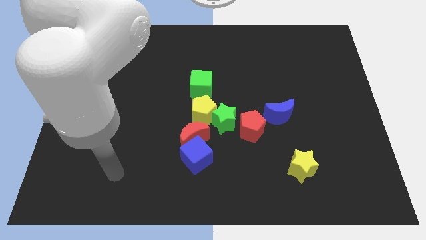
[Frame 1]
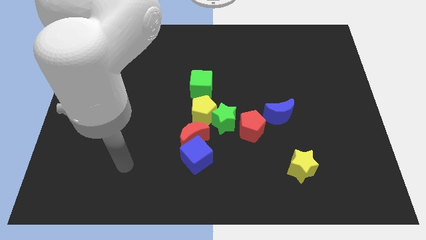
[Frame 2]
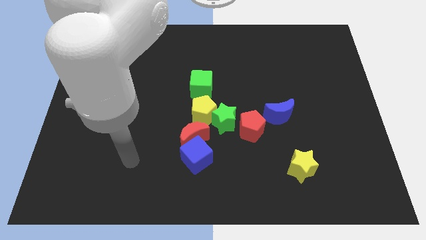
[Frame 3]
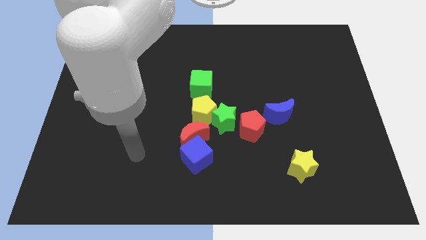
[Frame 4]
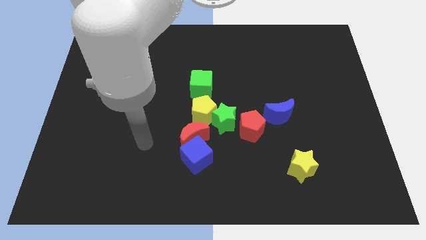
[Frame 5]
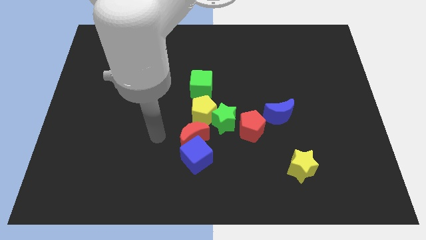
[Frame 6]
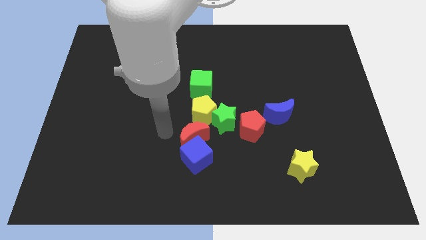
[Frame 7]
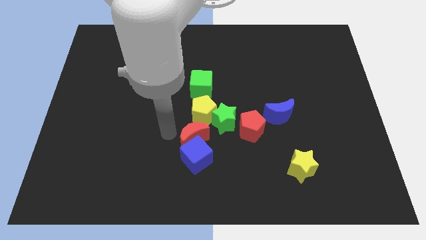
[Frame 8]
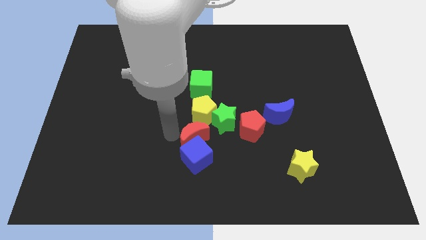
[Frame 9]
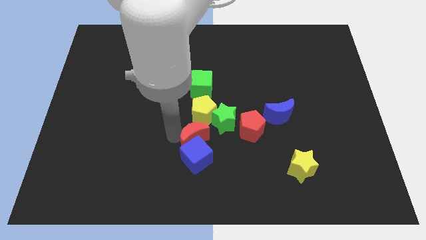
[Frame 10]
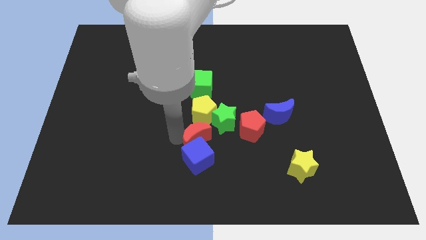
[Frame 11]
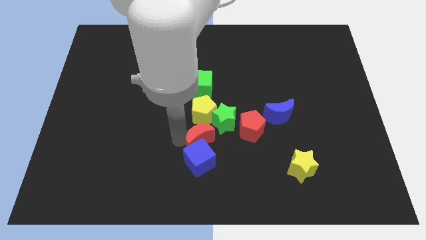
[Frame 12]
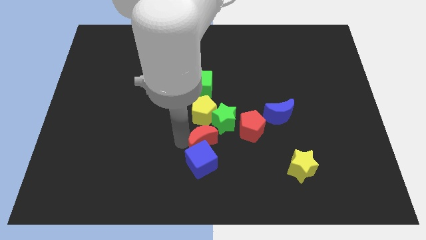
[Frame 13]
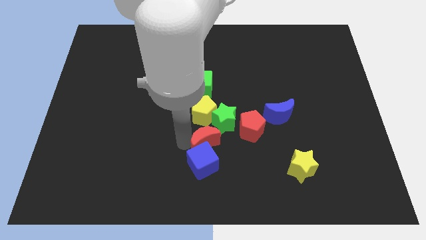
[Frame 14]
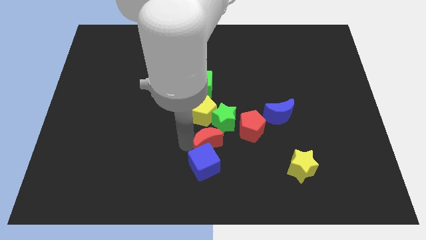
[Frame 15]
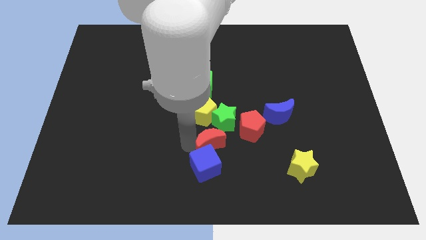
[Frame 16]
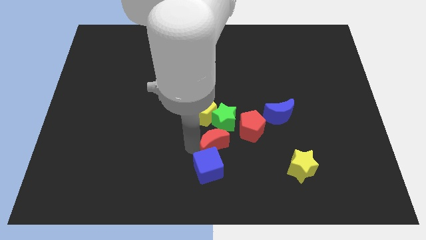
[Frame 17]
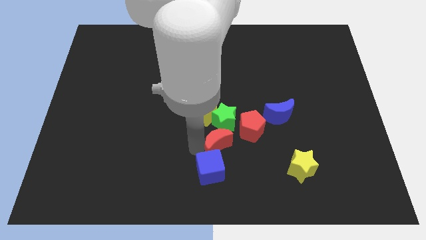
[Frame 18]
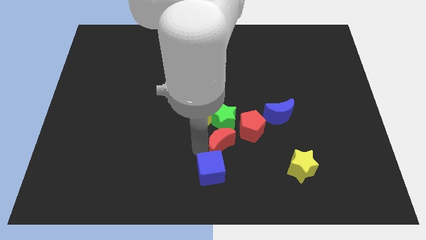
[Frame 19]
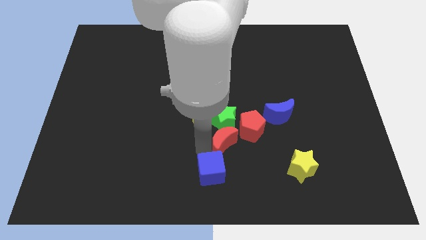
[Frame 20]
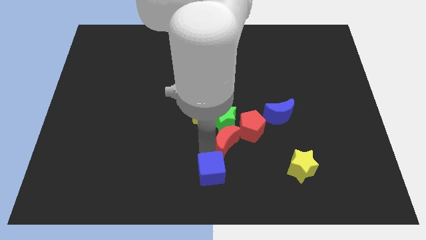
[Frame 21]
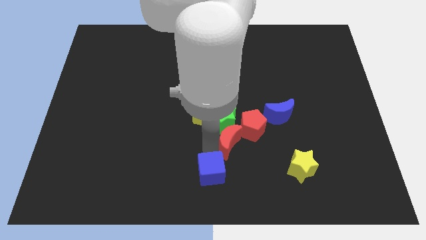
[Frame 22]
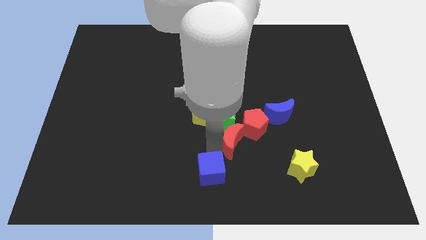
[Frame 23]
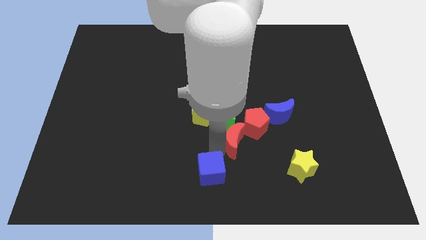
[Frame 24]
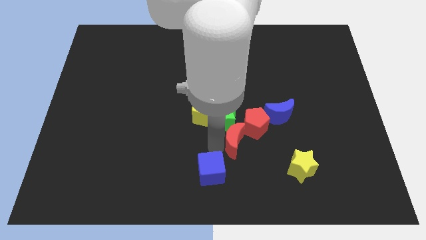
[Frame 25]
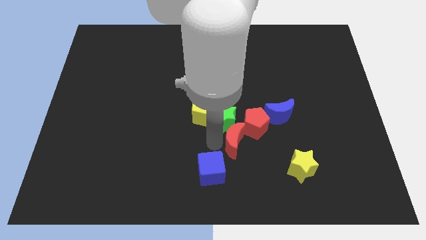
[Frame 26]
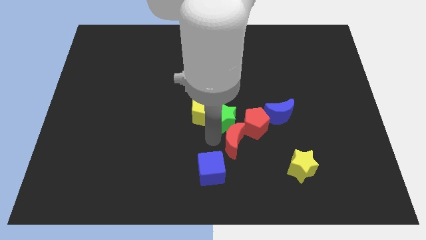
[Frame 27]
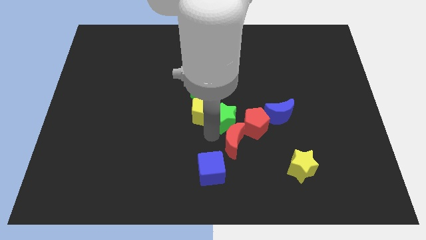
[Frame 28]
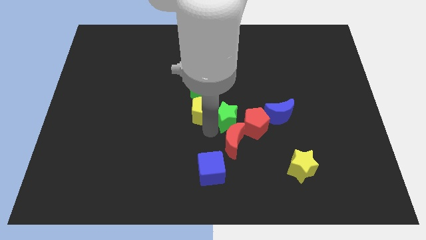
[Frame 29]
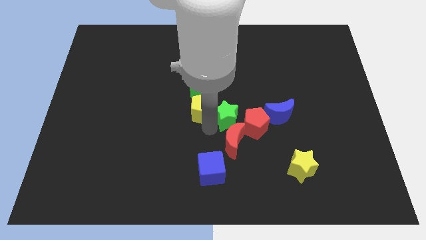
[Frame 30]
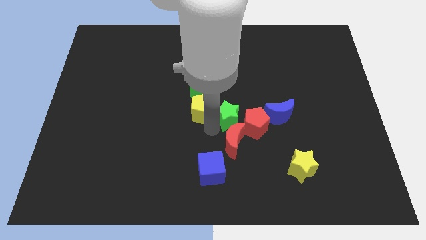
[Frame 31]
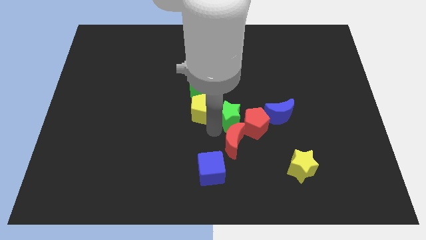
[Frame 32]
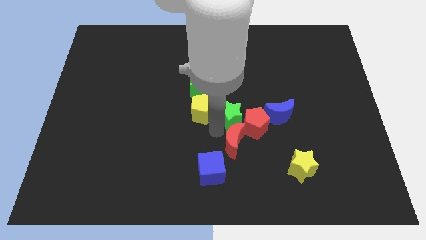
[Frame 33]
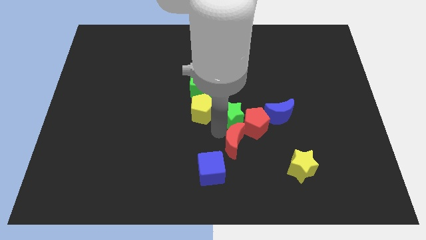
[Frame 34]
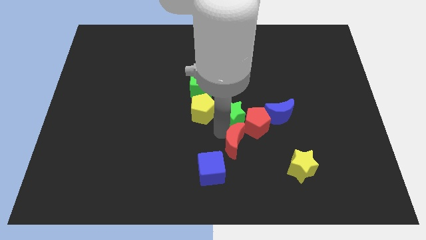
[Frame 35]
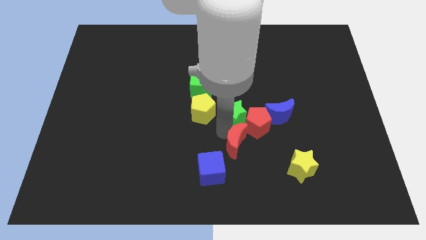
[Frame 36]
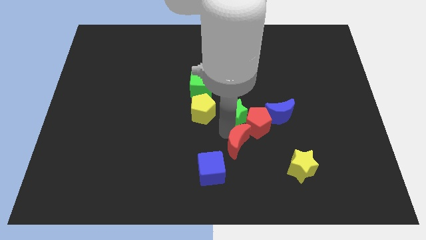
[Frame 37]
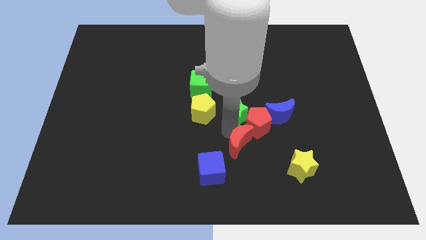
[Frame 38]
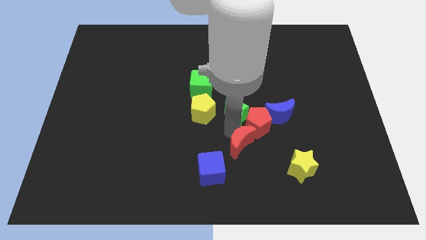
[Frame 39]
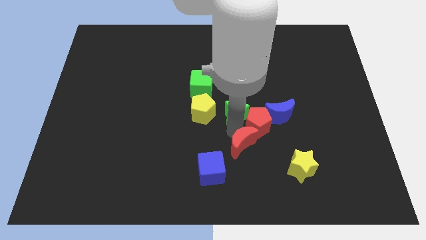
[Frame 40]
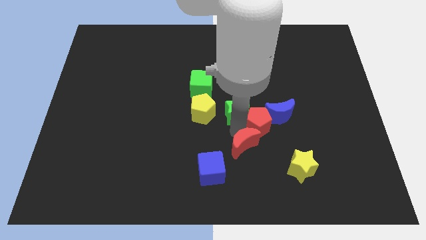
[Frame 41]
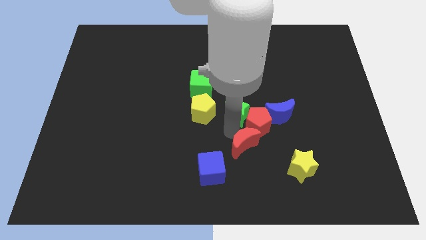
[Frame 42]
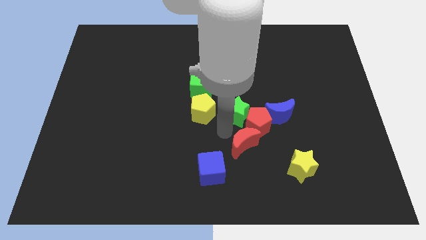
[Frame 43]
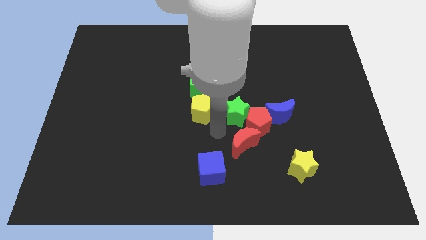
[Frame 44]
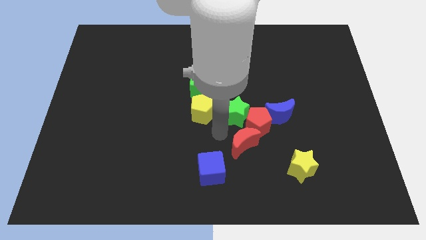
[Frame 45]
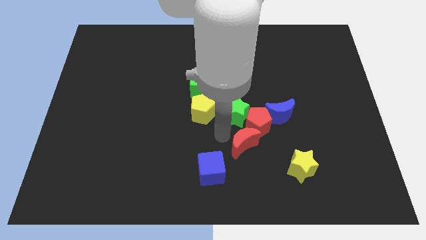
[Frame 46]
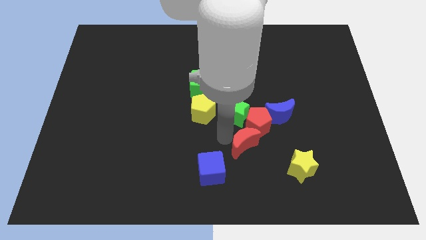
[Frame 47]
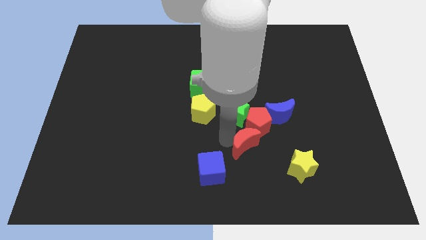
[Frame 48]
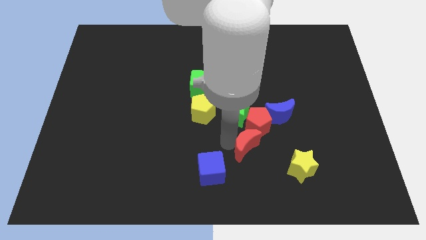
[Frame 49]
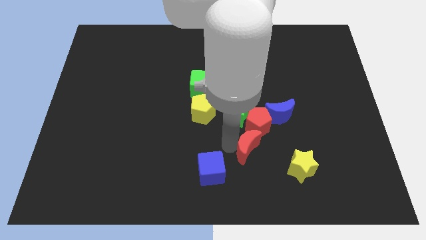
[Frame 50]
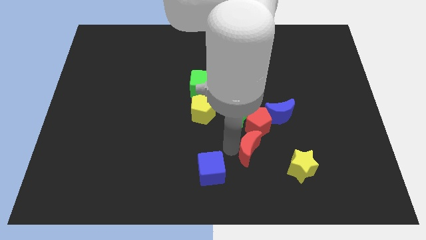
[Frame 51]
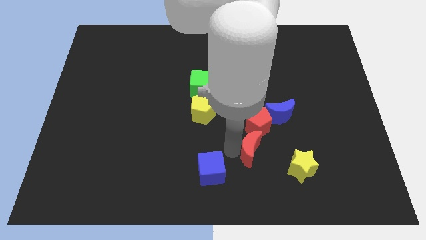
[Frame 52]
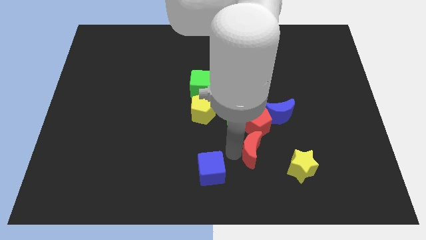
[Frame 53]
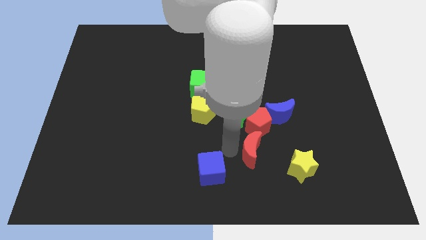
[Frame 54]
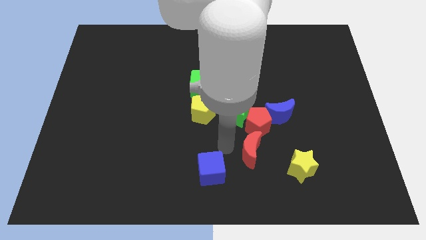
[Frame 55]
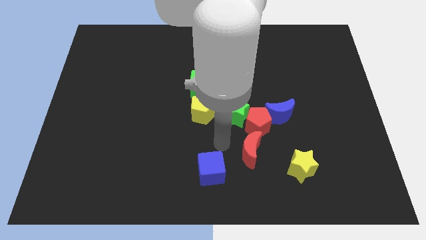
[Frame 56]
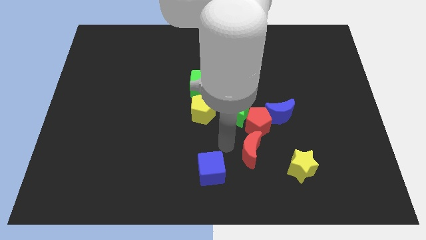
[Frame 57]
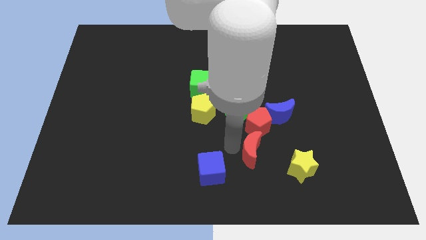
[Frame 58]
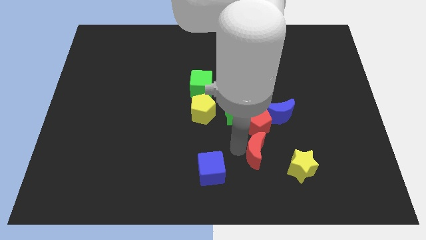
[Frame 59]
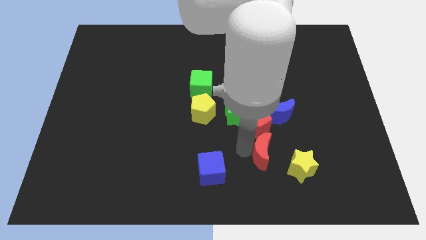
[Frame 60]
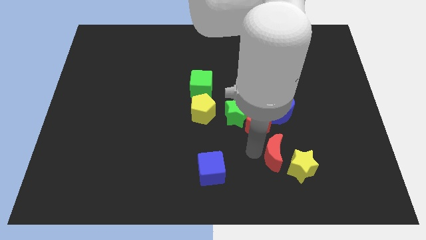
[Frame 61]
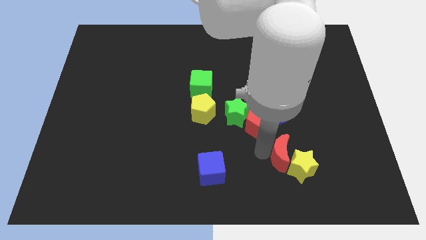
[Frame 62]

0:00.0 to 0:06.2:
move the red moon close to the yellow star
